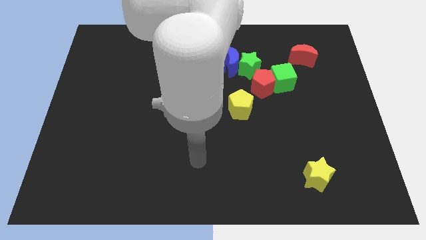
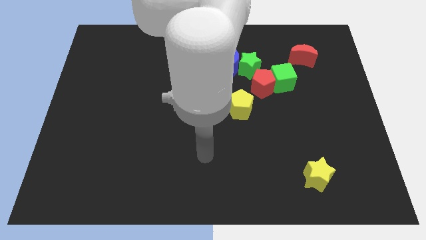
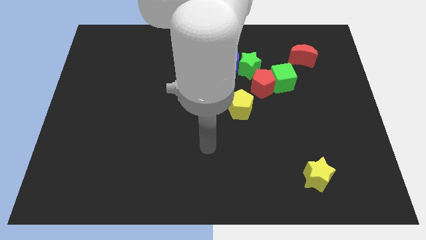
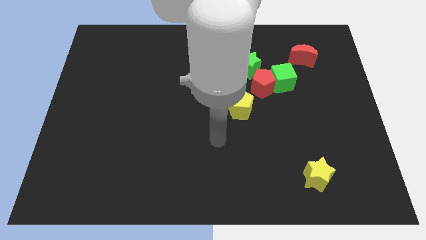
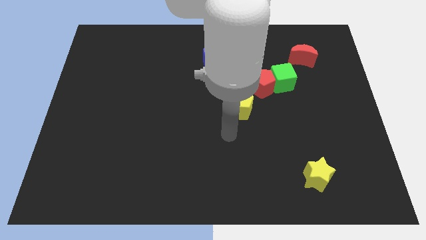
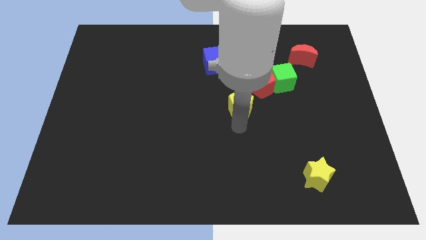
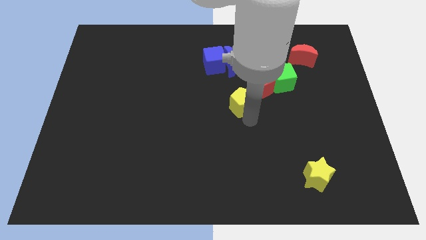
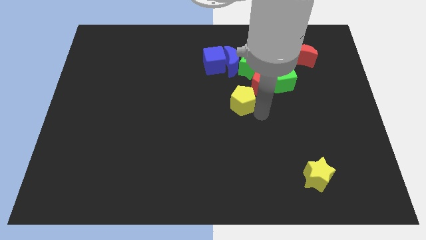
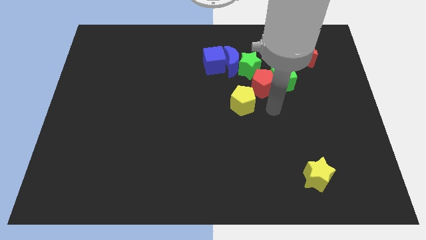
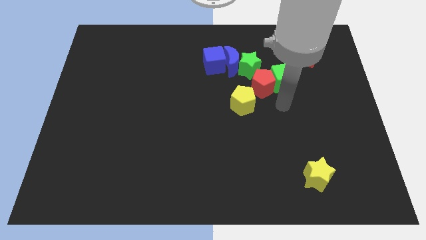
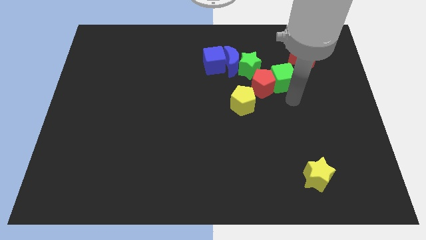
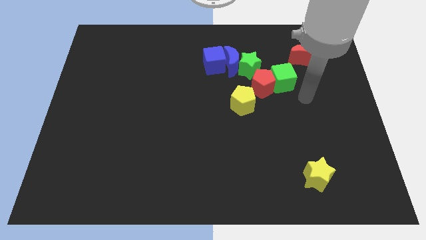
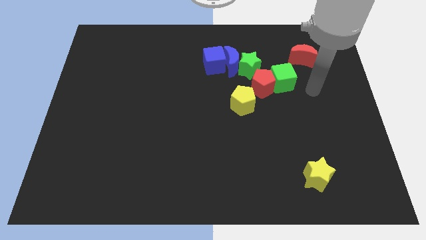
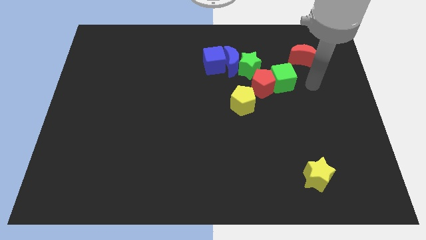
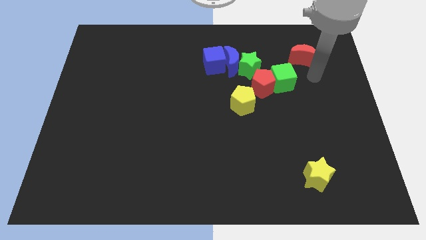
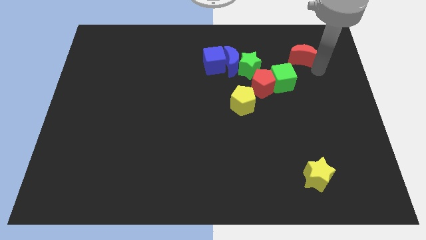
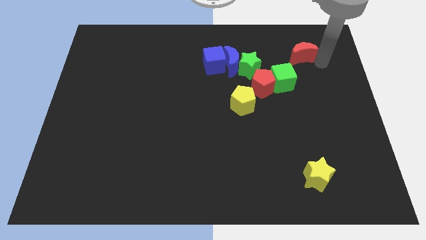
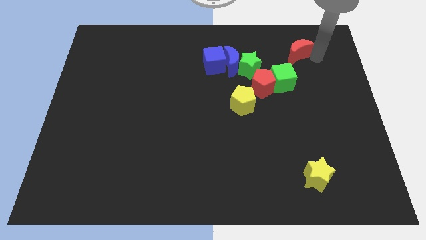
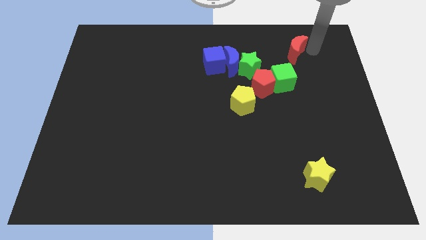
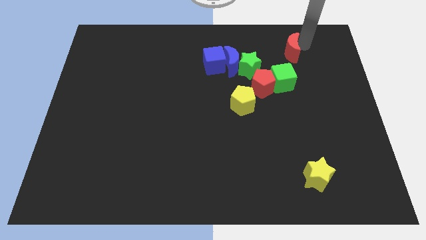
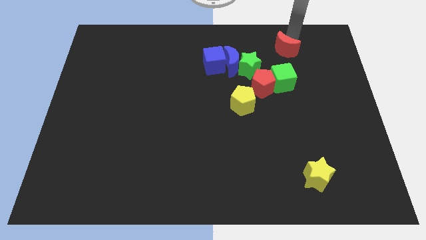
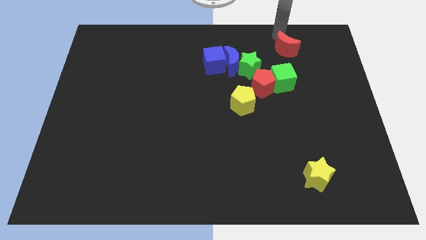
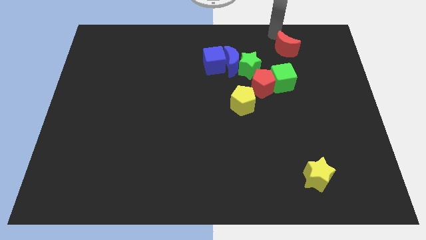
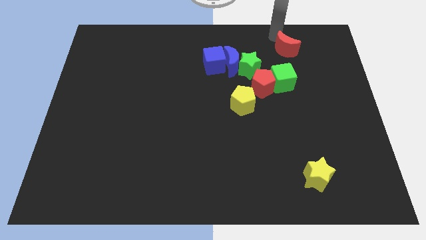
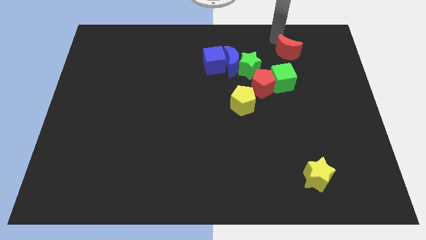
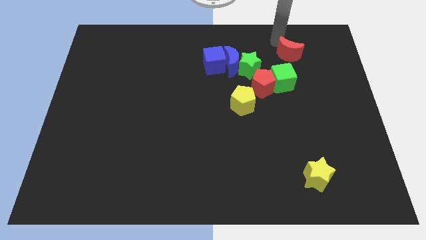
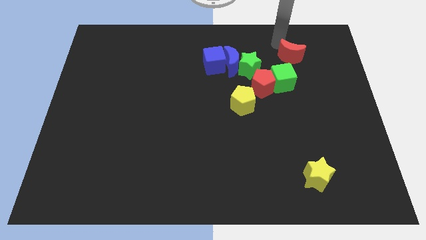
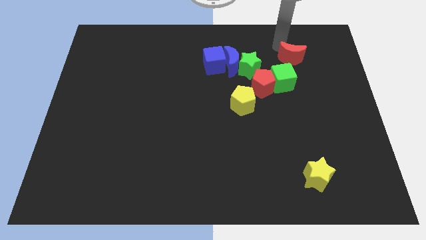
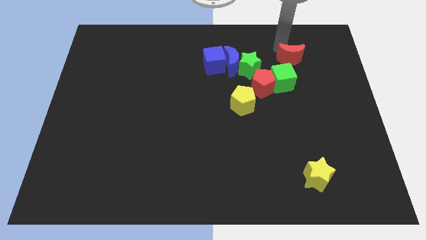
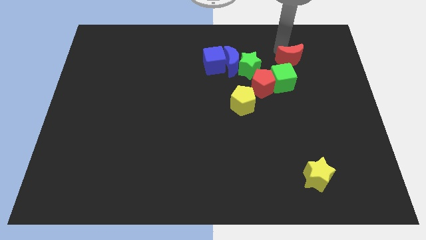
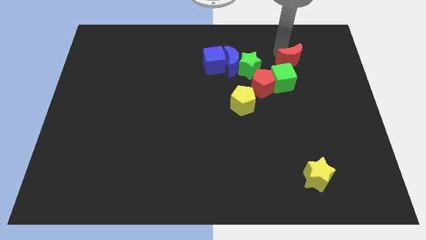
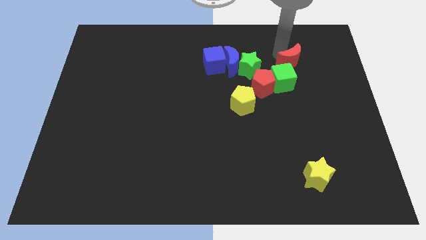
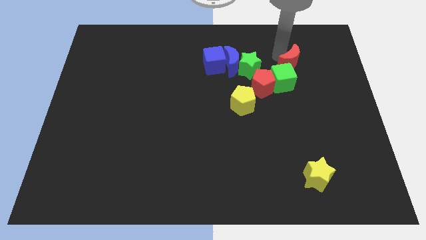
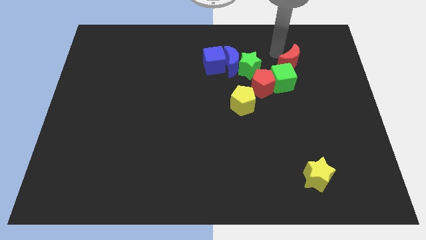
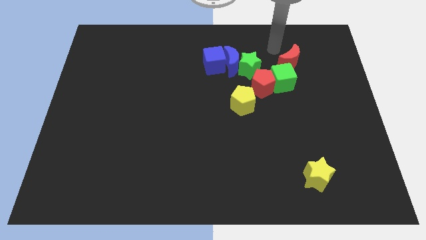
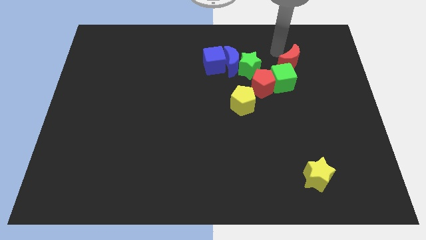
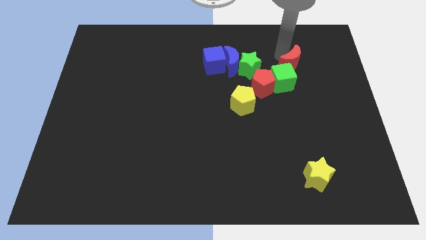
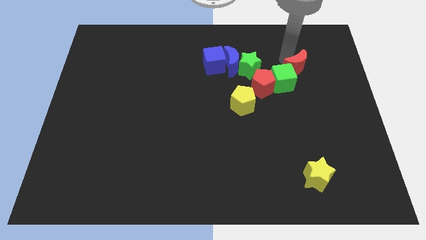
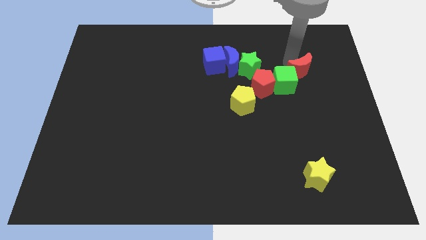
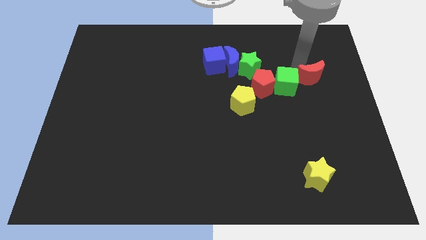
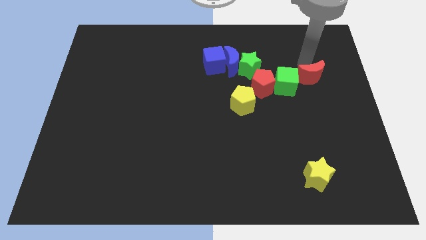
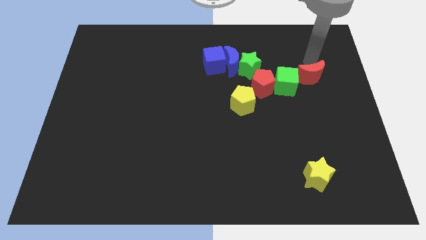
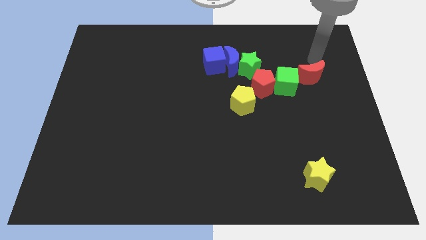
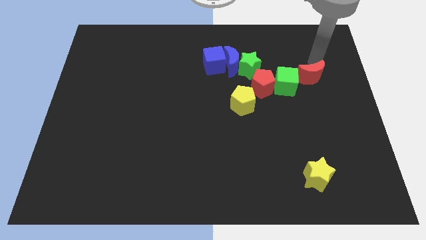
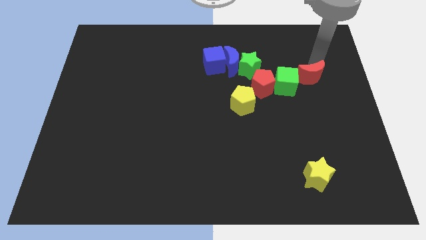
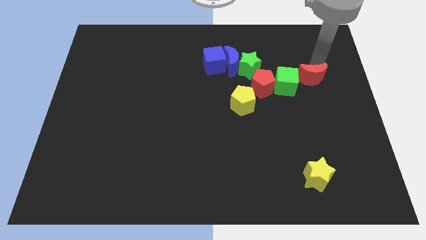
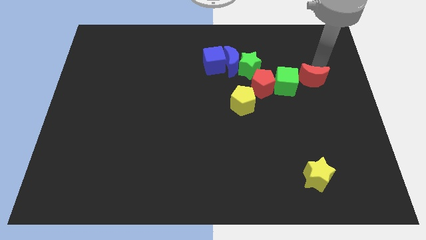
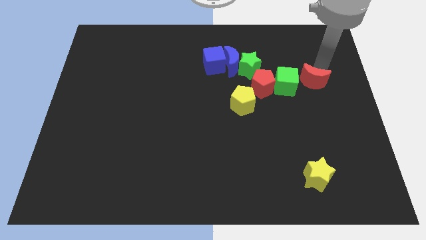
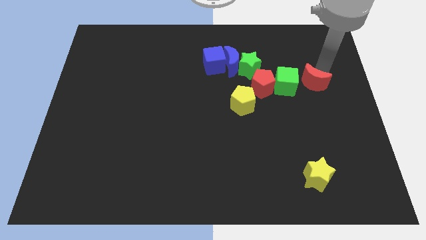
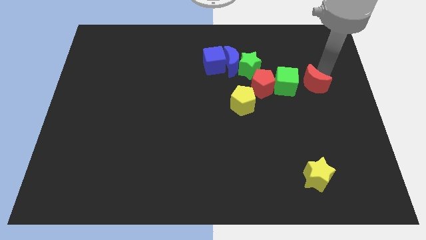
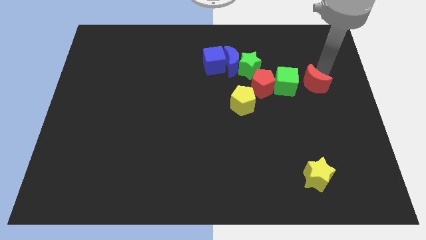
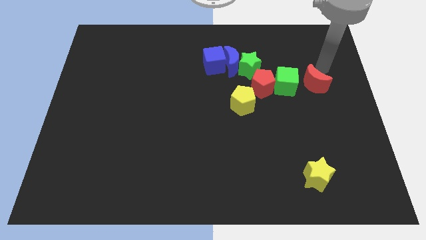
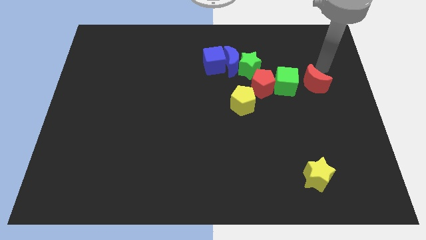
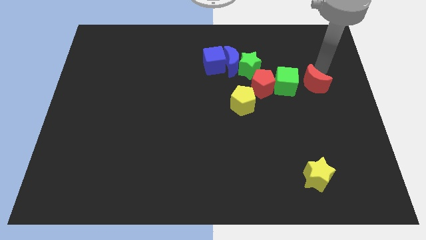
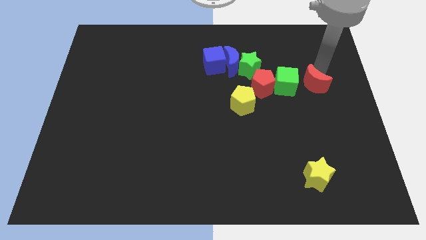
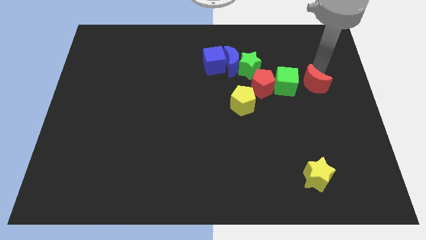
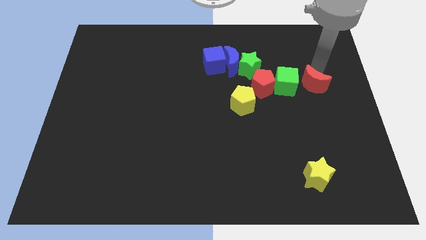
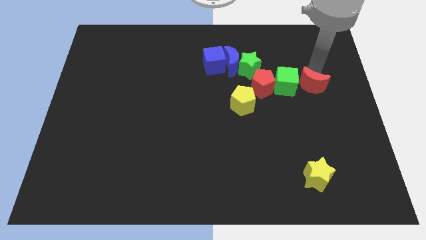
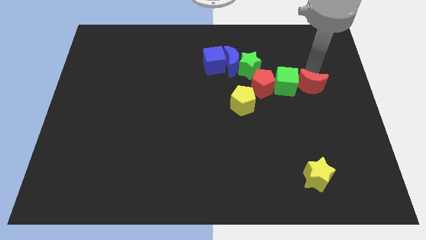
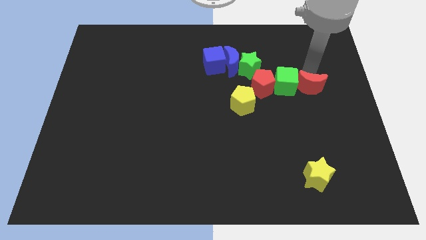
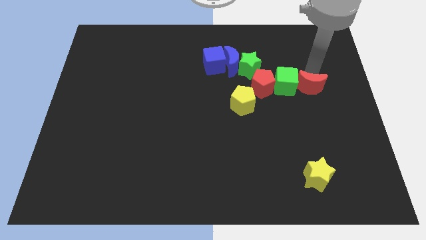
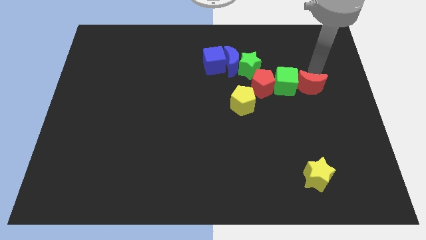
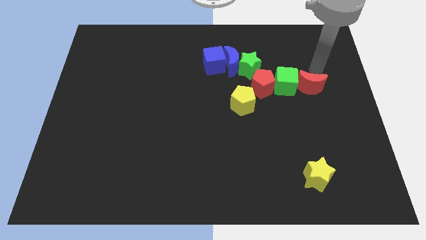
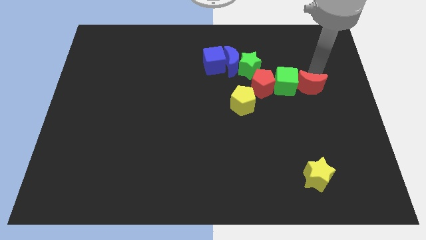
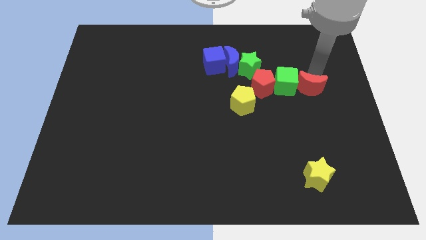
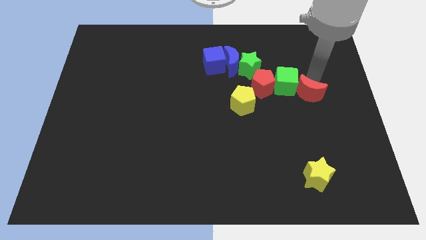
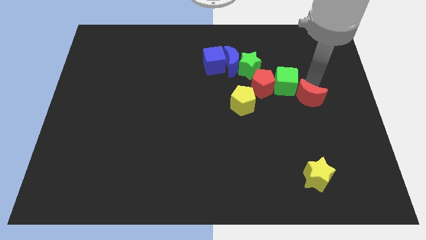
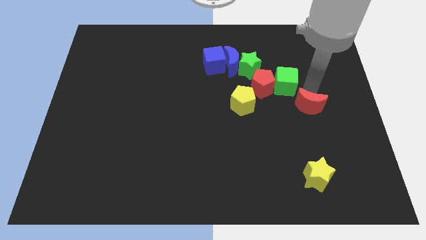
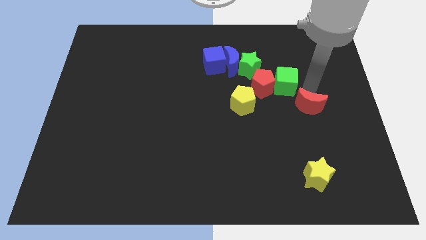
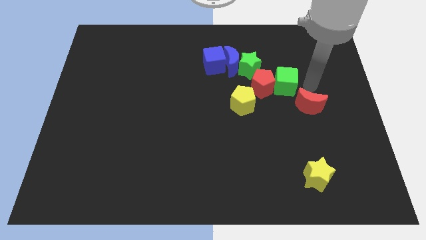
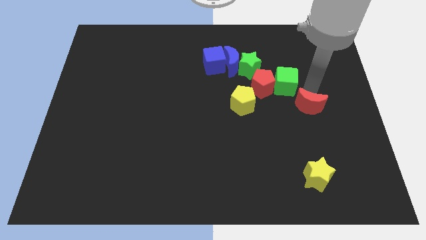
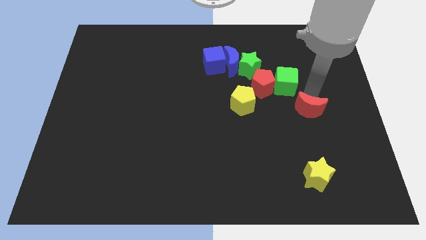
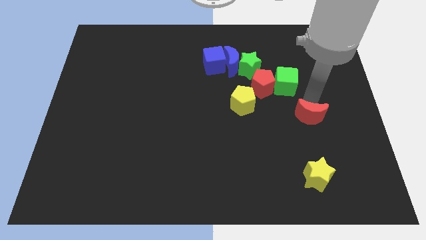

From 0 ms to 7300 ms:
push the red moon to the top of the yellow star
